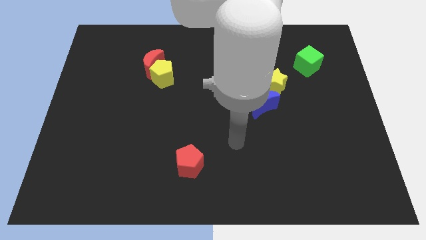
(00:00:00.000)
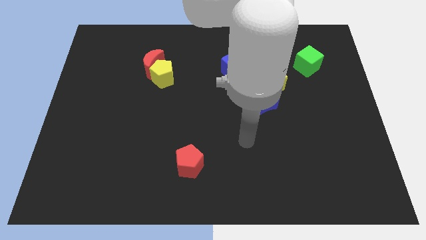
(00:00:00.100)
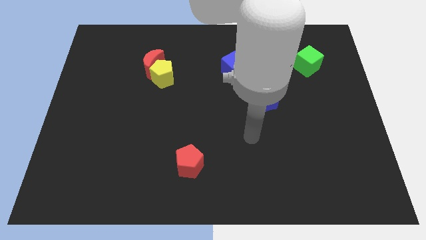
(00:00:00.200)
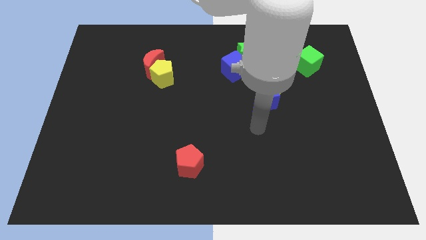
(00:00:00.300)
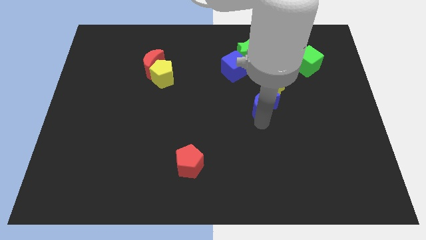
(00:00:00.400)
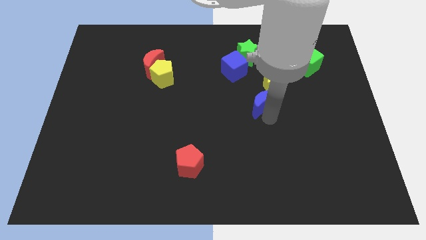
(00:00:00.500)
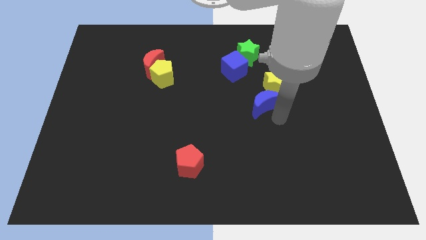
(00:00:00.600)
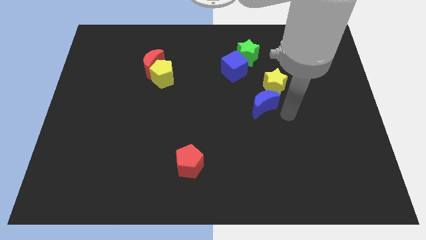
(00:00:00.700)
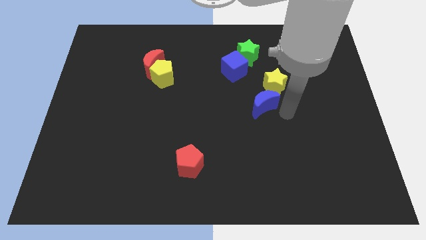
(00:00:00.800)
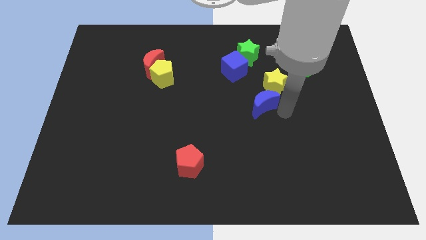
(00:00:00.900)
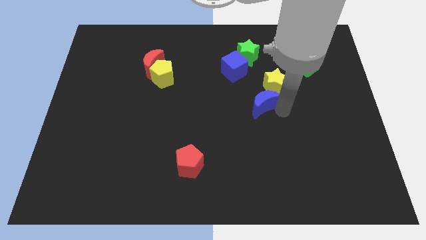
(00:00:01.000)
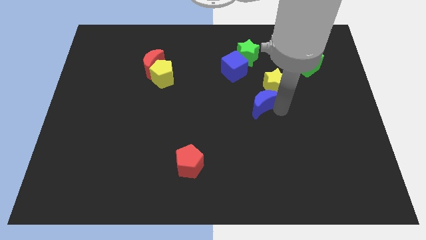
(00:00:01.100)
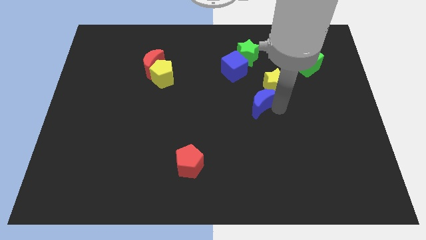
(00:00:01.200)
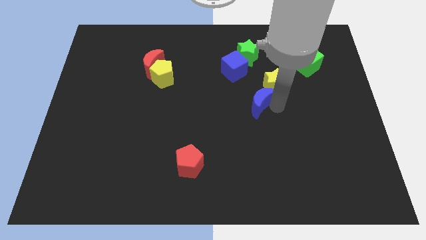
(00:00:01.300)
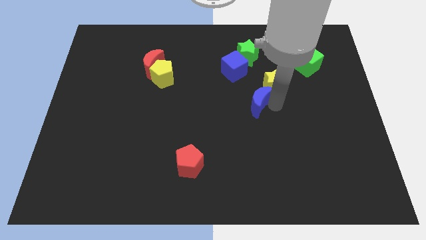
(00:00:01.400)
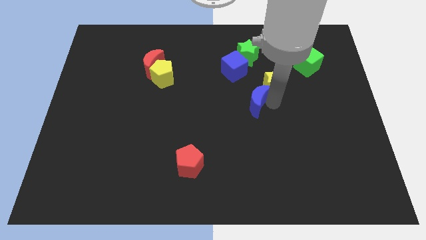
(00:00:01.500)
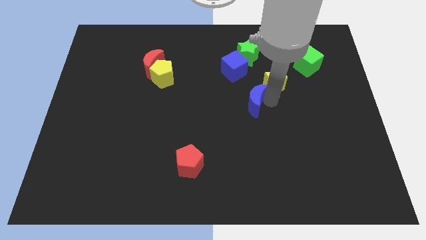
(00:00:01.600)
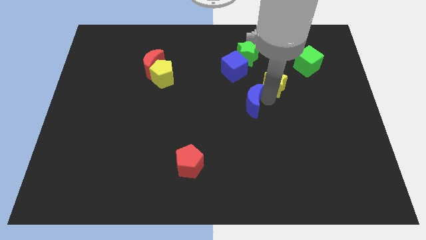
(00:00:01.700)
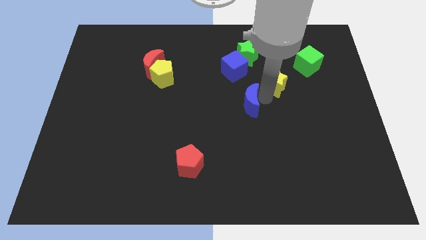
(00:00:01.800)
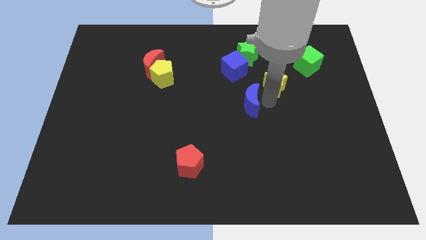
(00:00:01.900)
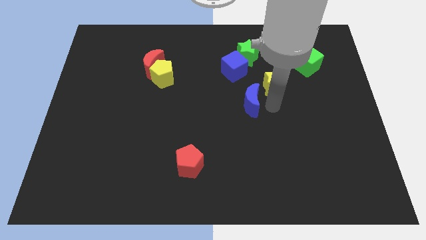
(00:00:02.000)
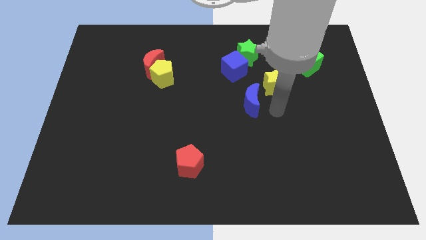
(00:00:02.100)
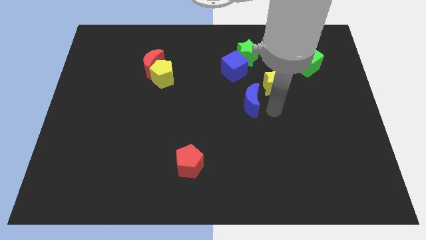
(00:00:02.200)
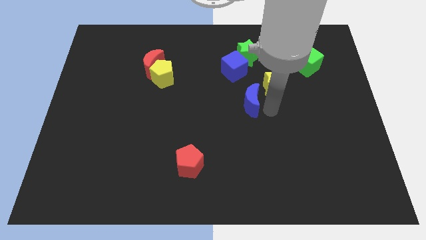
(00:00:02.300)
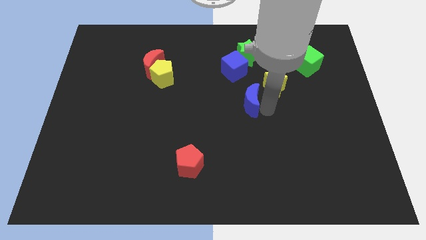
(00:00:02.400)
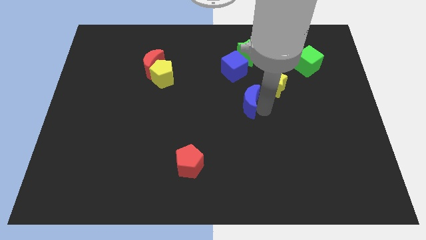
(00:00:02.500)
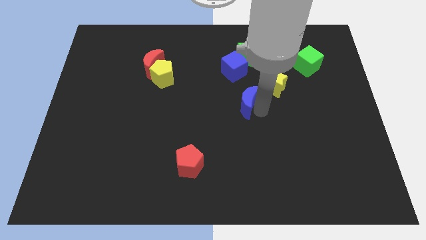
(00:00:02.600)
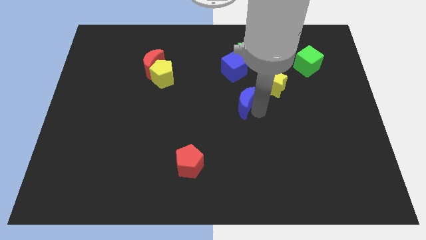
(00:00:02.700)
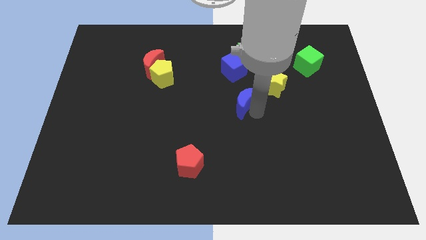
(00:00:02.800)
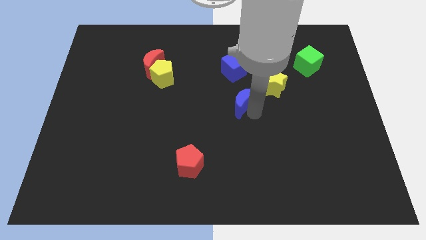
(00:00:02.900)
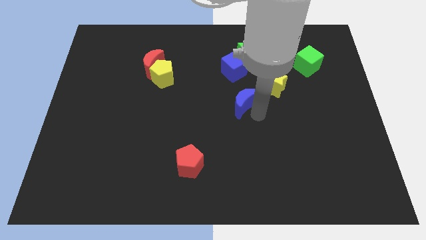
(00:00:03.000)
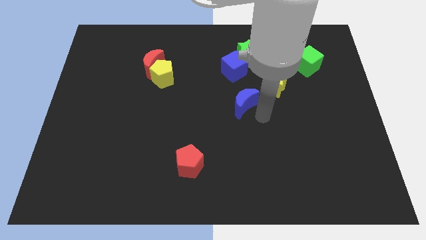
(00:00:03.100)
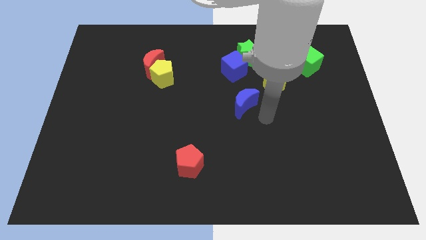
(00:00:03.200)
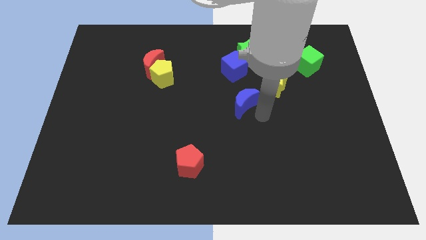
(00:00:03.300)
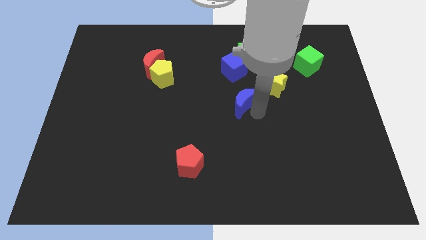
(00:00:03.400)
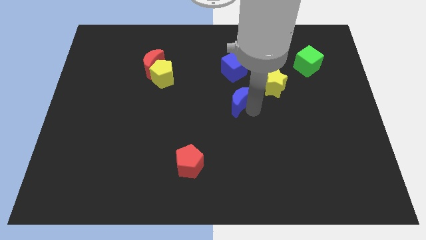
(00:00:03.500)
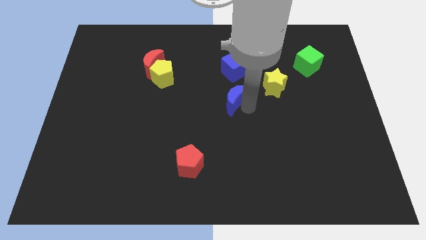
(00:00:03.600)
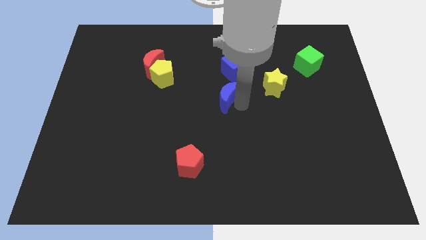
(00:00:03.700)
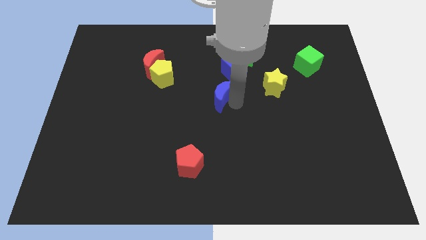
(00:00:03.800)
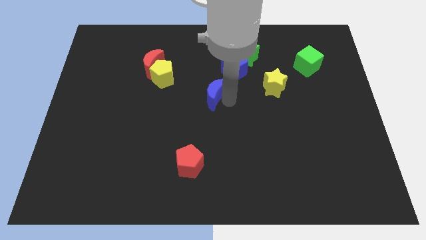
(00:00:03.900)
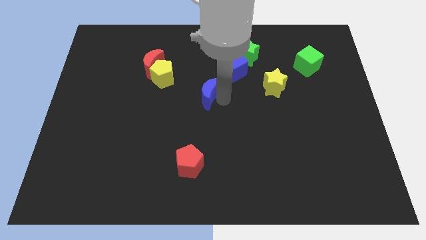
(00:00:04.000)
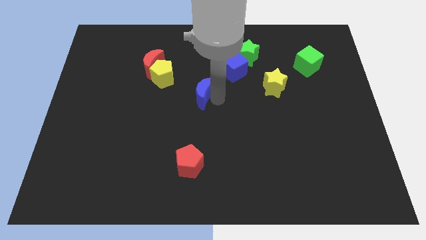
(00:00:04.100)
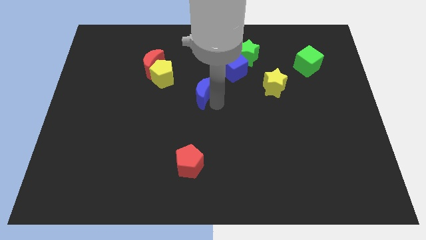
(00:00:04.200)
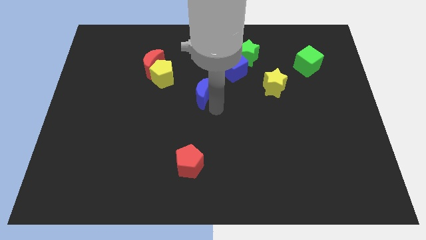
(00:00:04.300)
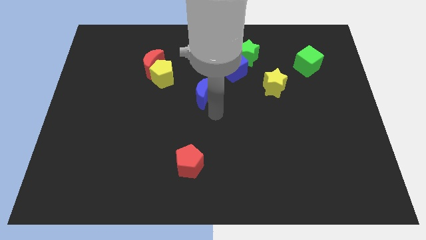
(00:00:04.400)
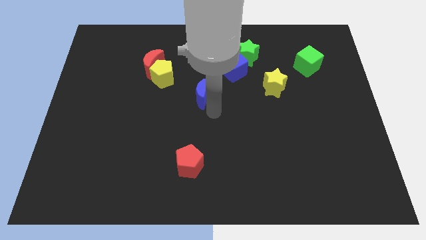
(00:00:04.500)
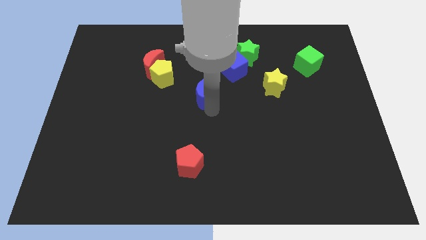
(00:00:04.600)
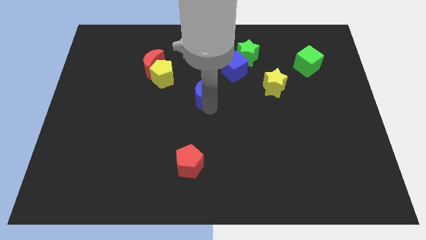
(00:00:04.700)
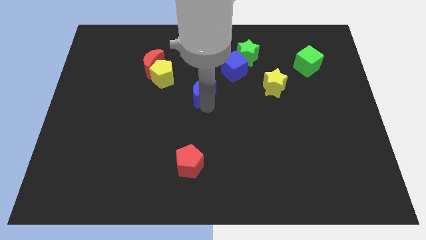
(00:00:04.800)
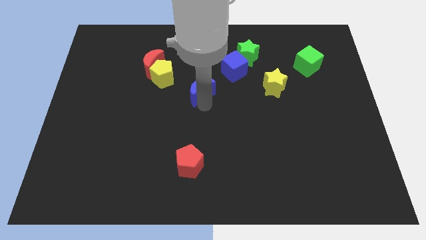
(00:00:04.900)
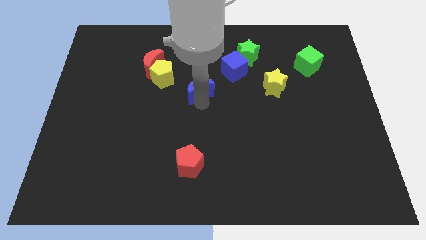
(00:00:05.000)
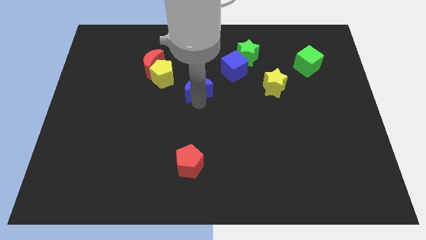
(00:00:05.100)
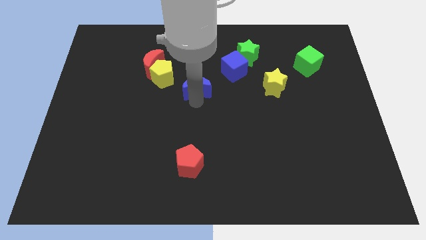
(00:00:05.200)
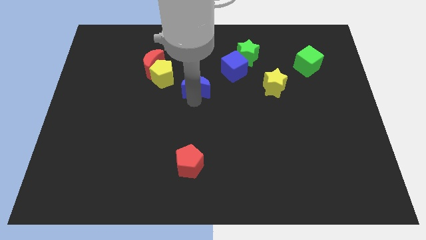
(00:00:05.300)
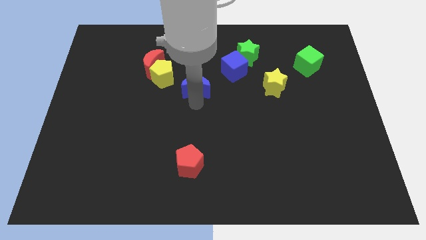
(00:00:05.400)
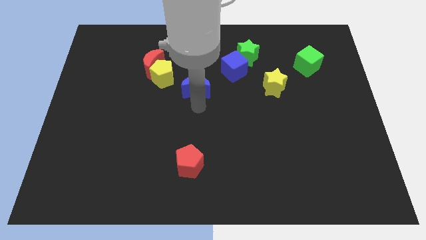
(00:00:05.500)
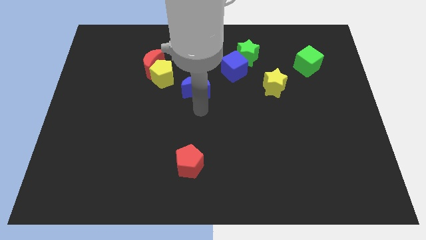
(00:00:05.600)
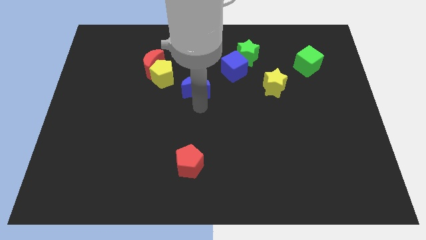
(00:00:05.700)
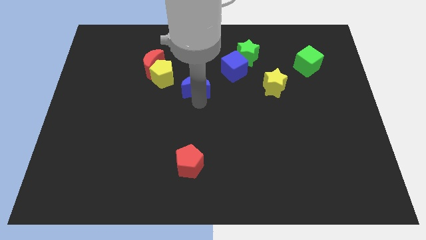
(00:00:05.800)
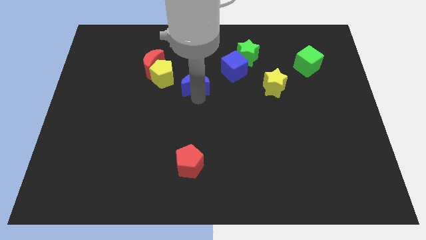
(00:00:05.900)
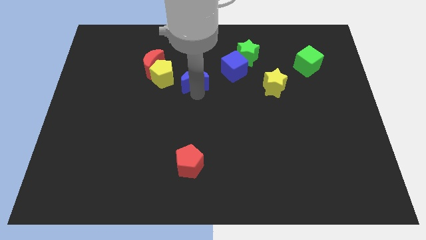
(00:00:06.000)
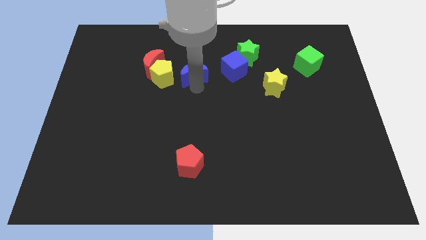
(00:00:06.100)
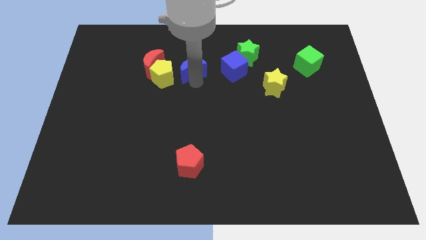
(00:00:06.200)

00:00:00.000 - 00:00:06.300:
move the blue moon to the top right side of the yellow pentagon

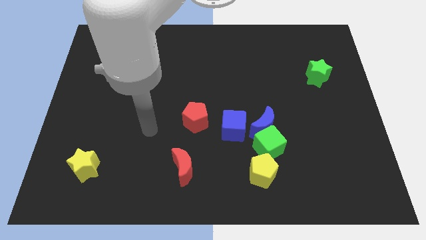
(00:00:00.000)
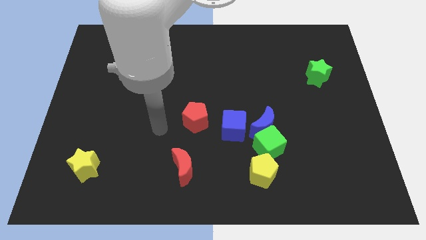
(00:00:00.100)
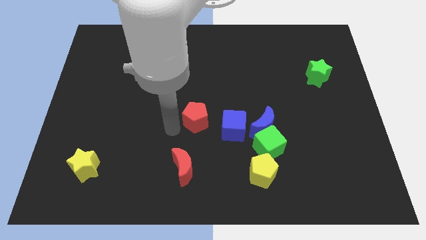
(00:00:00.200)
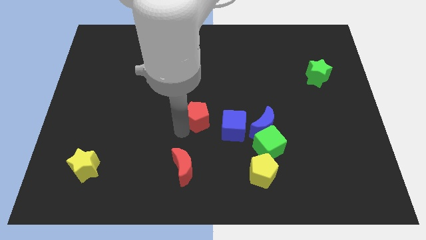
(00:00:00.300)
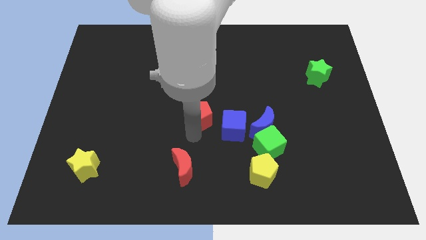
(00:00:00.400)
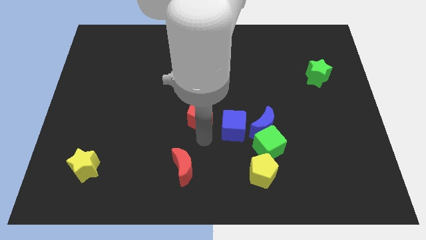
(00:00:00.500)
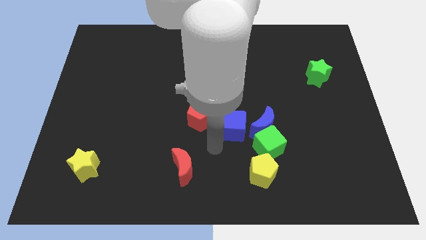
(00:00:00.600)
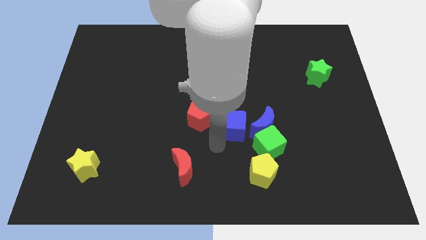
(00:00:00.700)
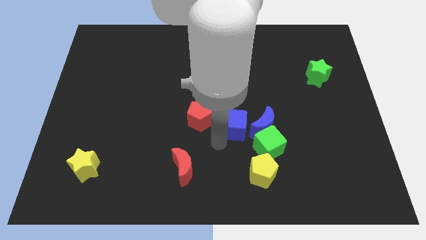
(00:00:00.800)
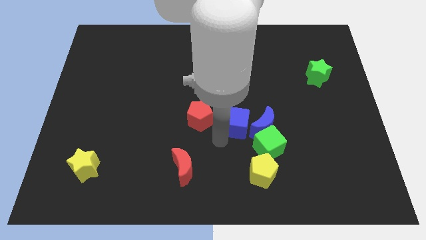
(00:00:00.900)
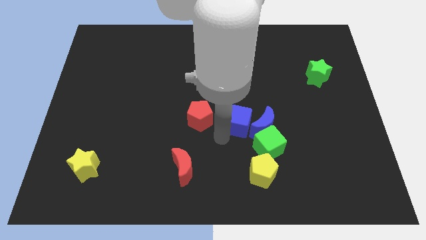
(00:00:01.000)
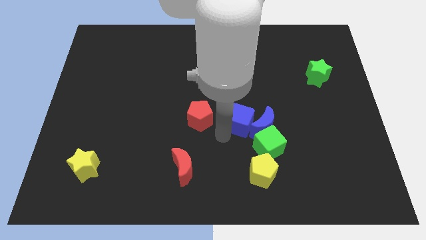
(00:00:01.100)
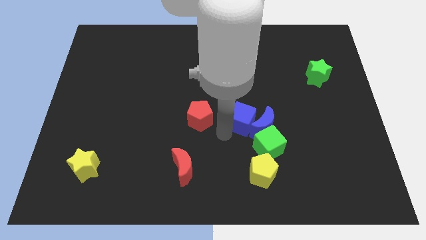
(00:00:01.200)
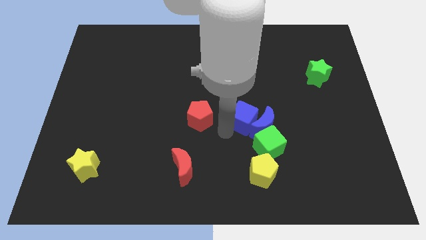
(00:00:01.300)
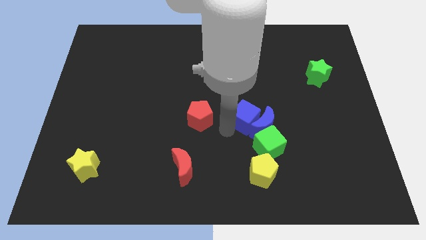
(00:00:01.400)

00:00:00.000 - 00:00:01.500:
push the blue cube to the top side of the green cube

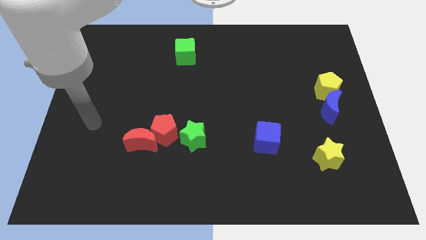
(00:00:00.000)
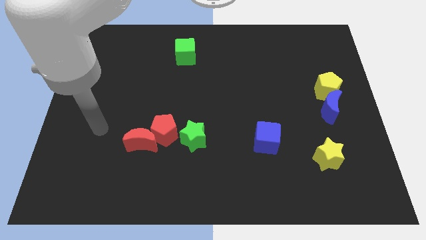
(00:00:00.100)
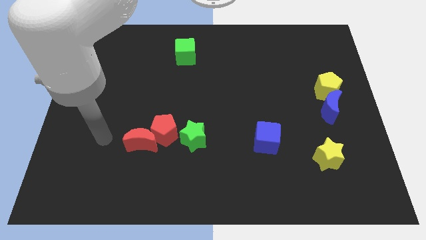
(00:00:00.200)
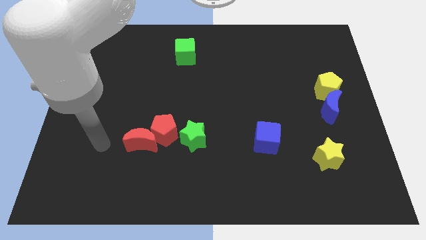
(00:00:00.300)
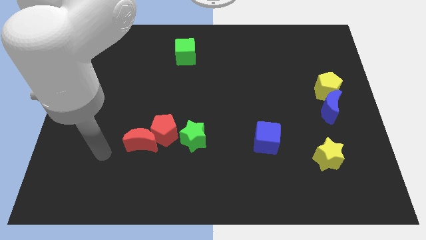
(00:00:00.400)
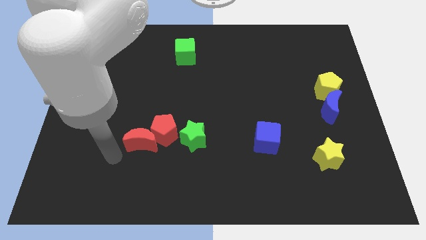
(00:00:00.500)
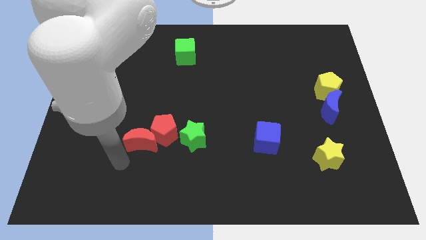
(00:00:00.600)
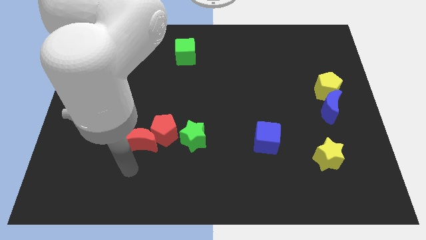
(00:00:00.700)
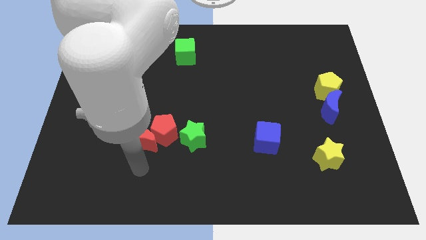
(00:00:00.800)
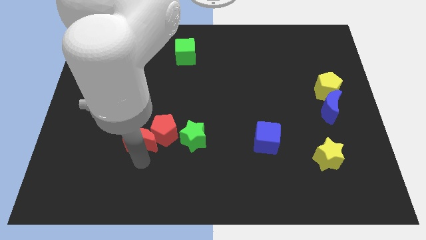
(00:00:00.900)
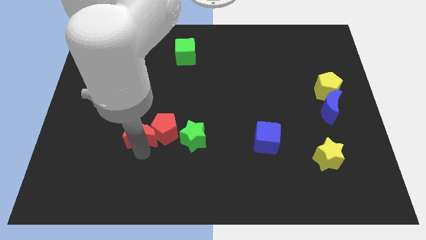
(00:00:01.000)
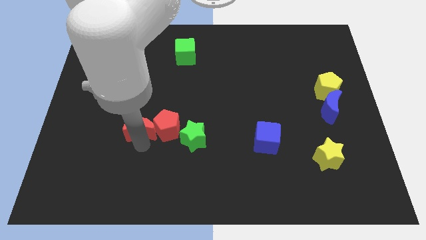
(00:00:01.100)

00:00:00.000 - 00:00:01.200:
push the red moon diagonally up and to the left of the red pentagon
